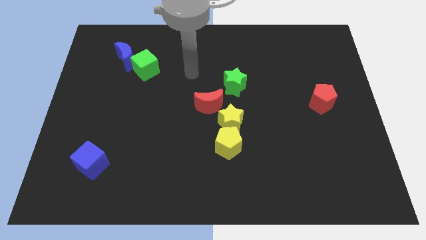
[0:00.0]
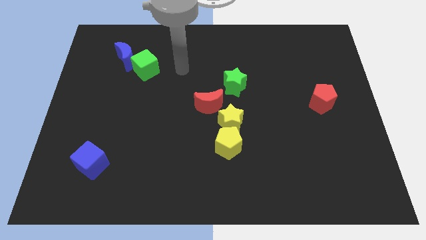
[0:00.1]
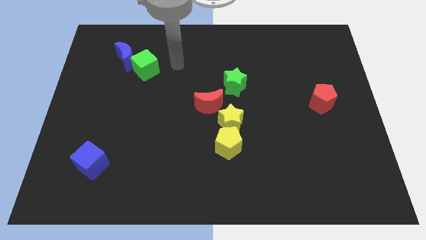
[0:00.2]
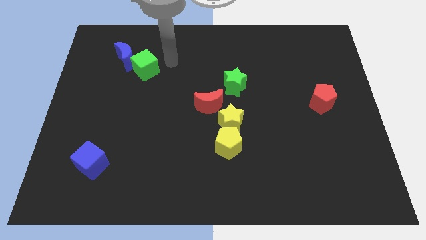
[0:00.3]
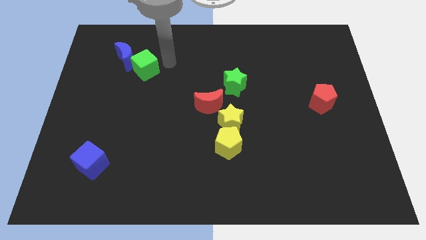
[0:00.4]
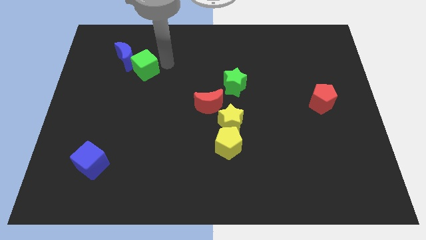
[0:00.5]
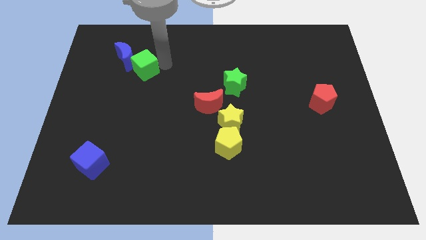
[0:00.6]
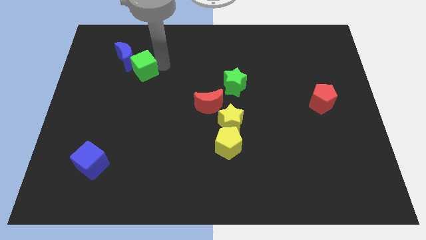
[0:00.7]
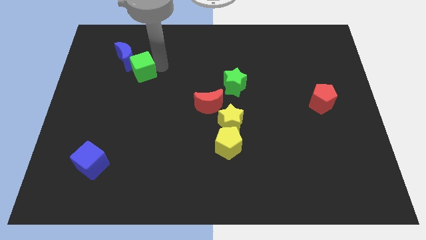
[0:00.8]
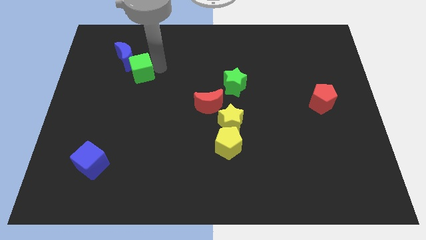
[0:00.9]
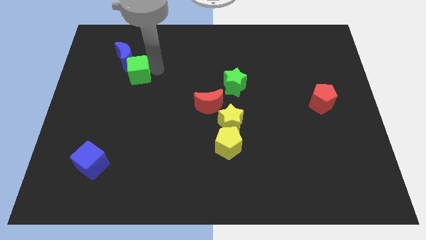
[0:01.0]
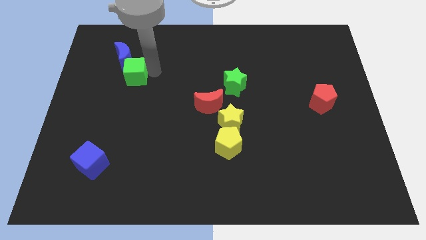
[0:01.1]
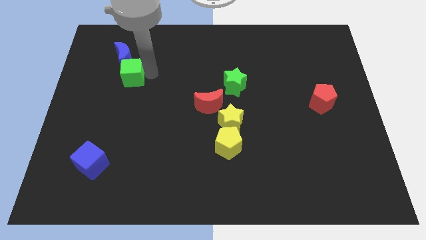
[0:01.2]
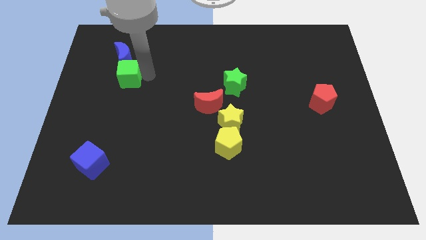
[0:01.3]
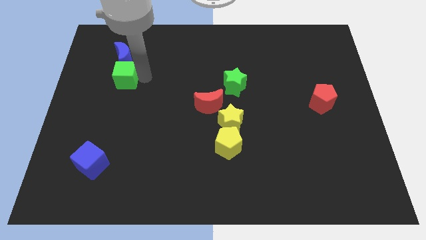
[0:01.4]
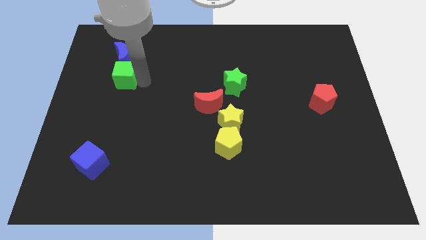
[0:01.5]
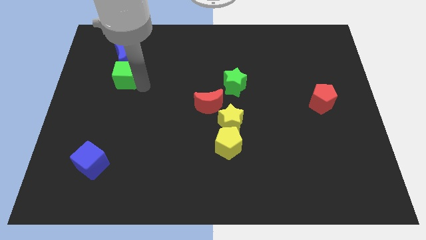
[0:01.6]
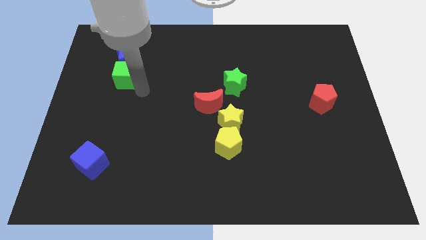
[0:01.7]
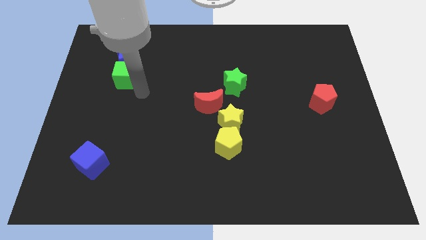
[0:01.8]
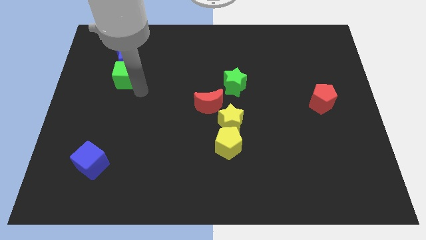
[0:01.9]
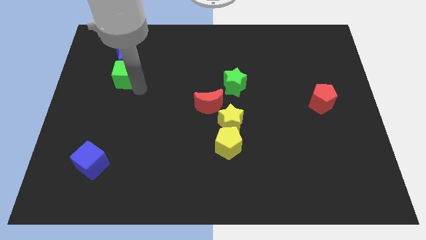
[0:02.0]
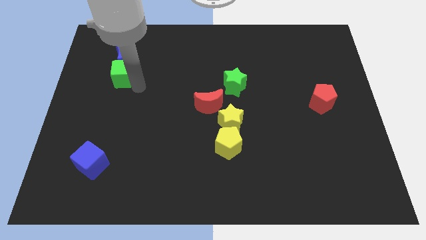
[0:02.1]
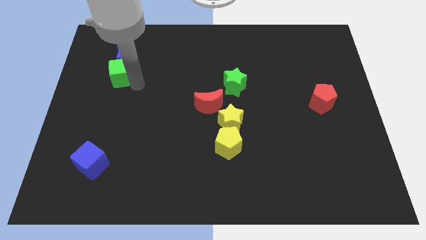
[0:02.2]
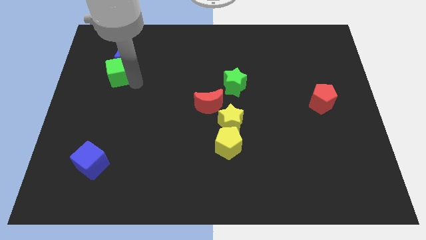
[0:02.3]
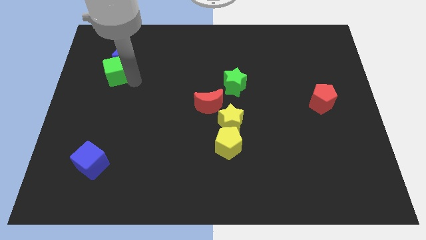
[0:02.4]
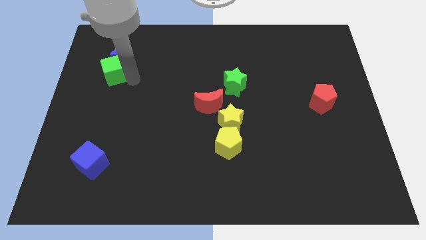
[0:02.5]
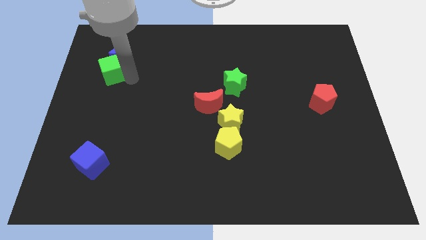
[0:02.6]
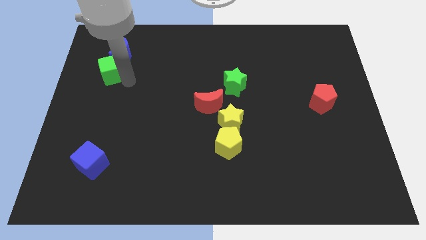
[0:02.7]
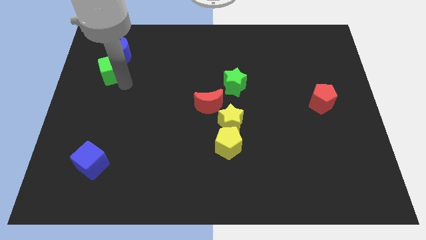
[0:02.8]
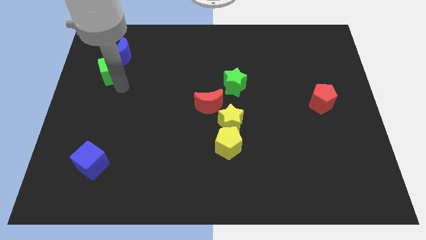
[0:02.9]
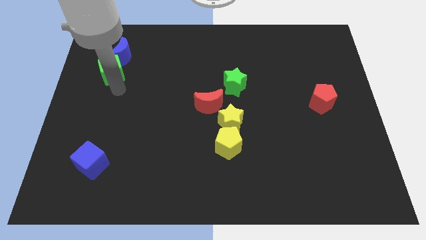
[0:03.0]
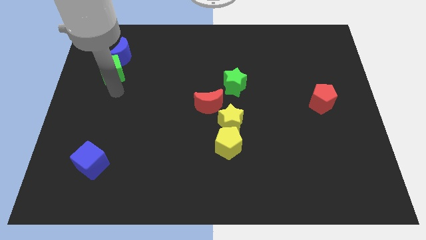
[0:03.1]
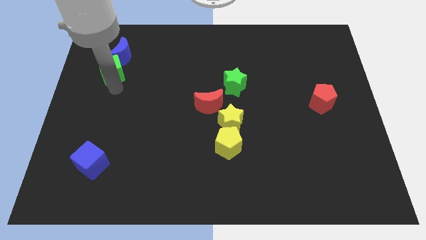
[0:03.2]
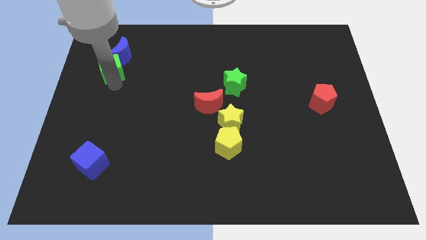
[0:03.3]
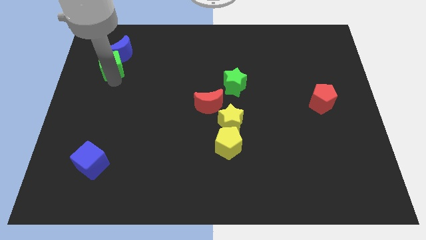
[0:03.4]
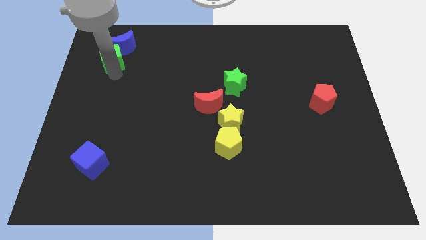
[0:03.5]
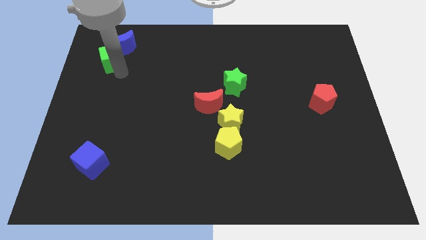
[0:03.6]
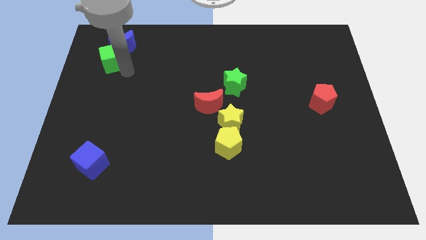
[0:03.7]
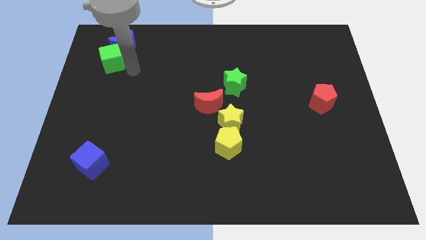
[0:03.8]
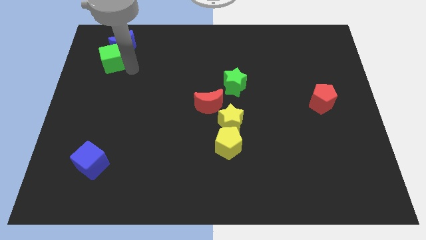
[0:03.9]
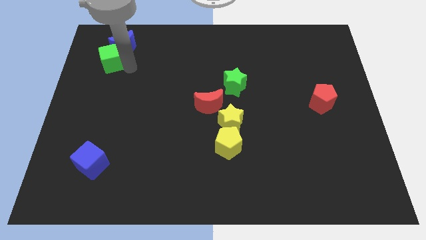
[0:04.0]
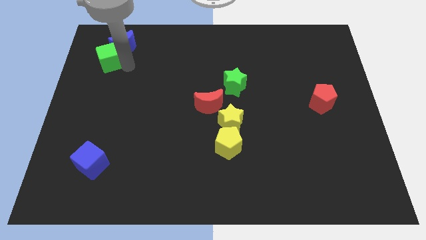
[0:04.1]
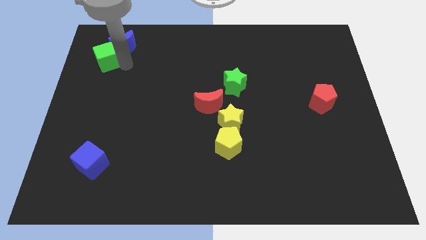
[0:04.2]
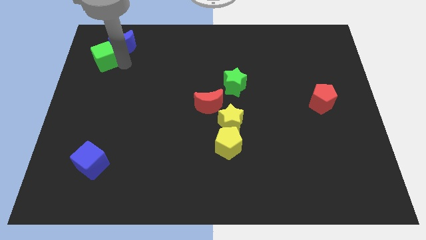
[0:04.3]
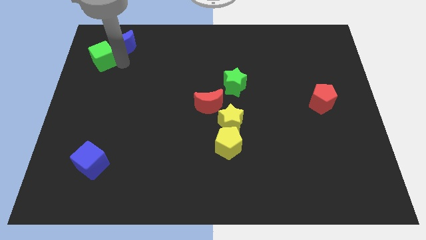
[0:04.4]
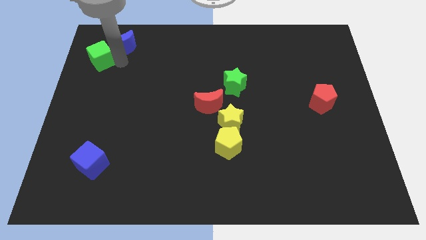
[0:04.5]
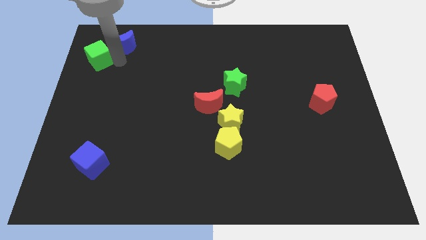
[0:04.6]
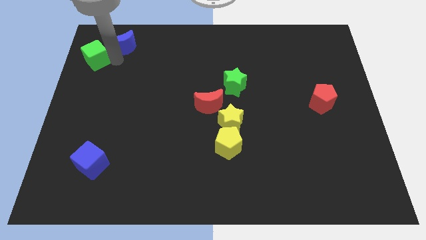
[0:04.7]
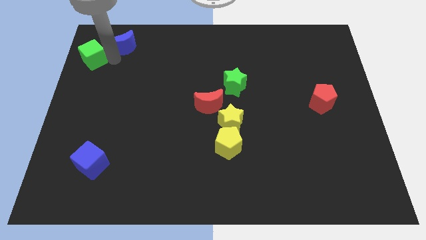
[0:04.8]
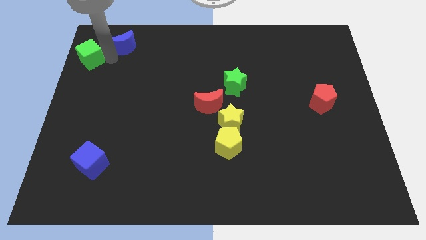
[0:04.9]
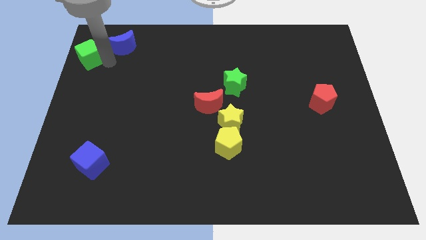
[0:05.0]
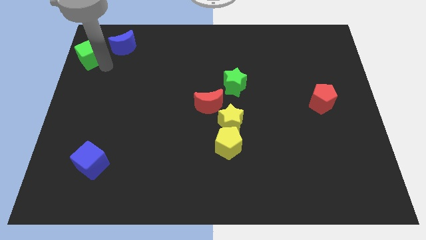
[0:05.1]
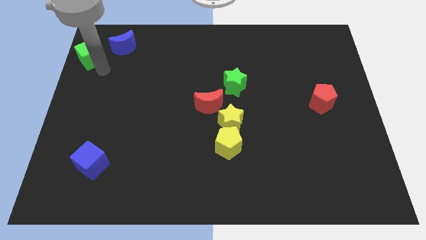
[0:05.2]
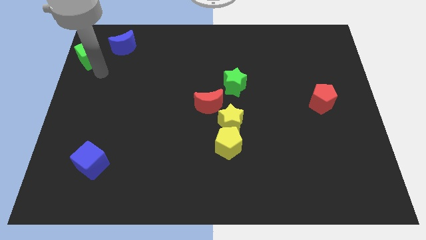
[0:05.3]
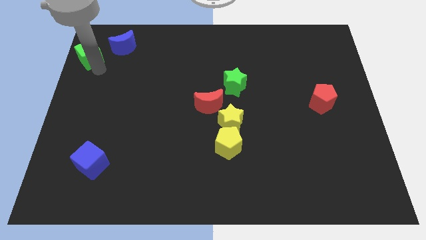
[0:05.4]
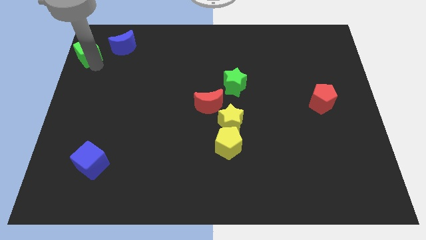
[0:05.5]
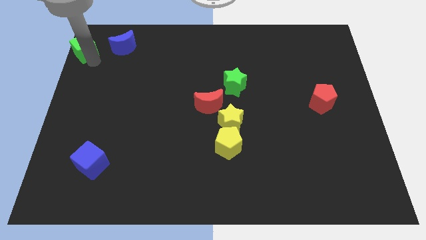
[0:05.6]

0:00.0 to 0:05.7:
put the green cube to the top left corner

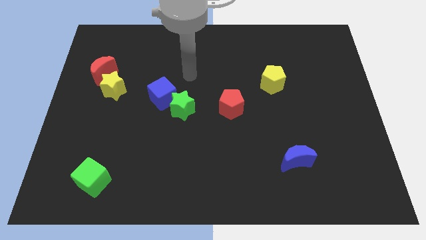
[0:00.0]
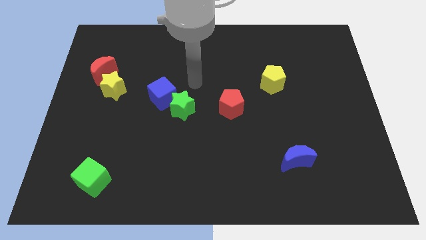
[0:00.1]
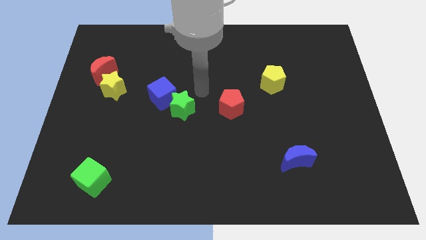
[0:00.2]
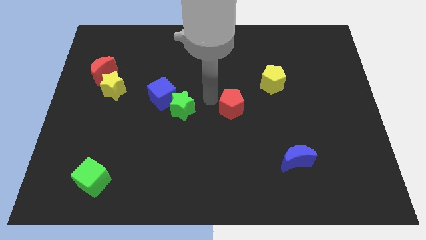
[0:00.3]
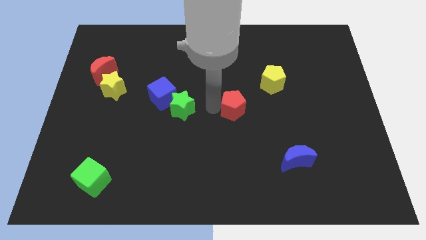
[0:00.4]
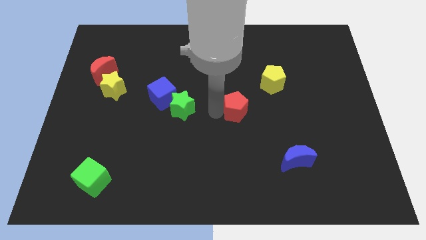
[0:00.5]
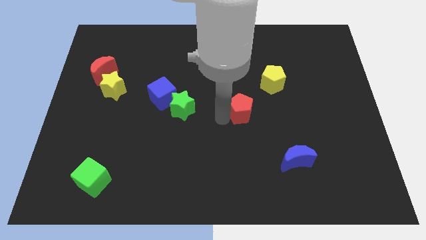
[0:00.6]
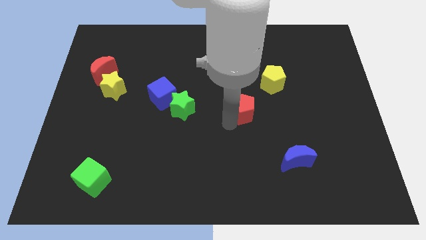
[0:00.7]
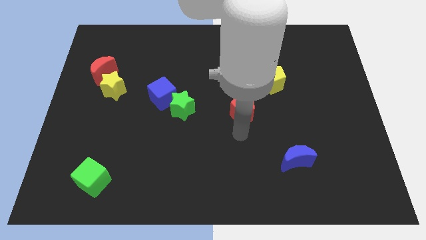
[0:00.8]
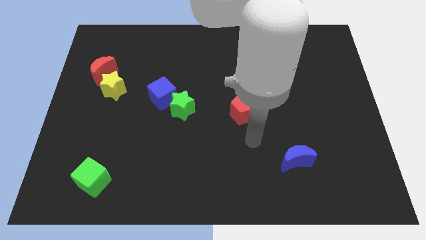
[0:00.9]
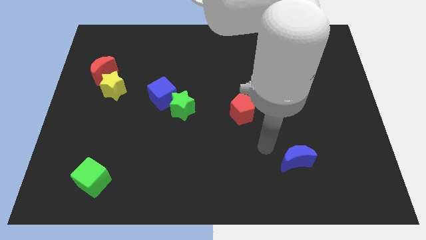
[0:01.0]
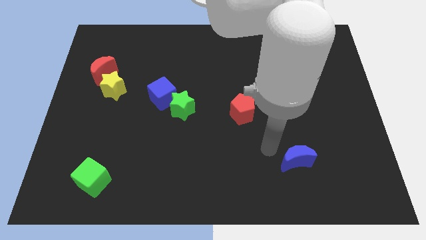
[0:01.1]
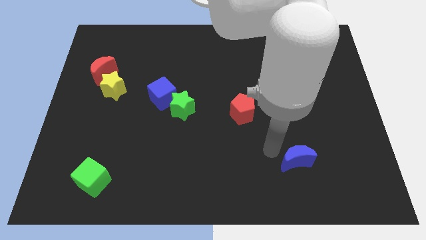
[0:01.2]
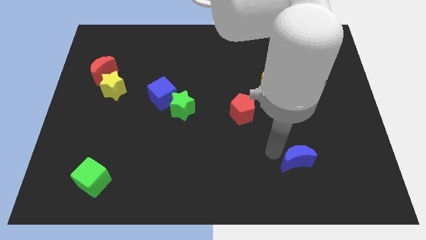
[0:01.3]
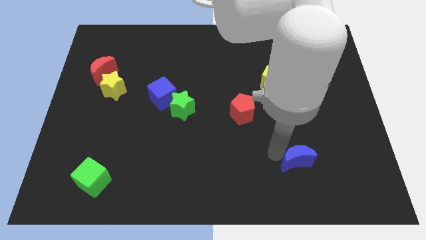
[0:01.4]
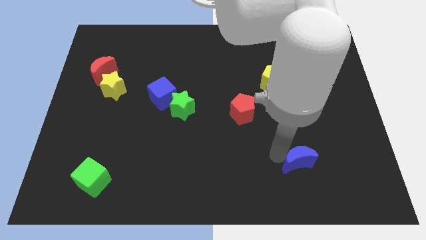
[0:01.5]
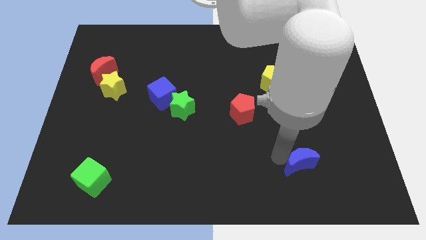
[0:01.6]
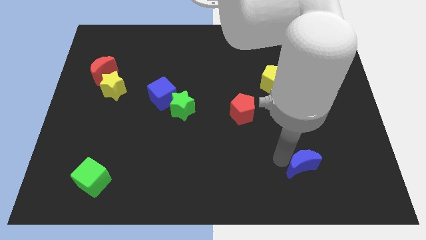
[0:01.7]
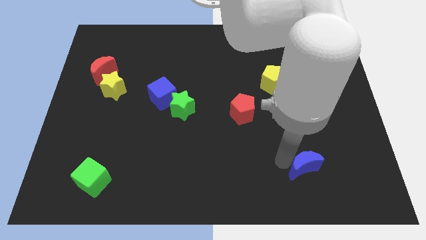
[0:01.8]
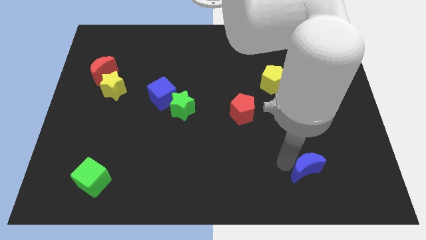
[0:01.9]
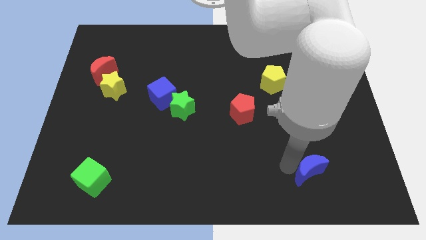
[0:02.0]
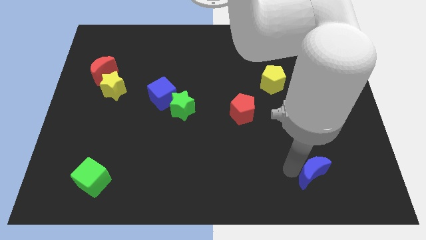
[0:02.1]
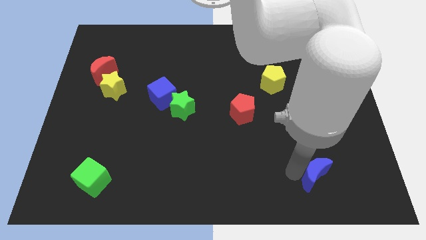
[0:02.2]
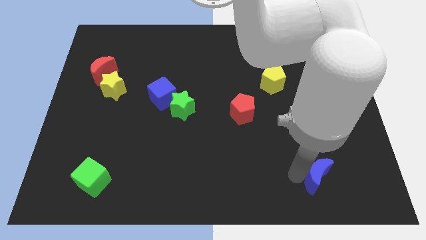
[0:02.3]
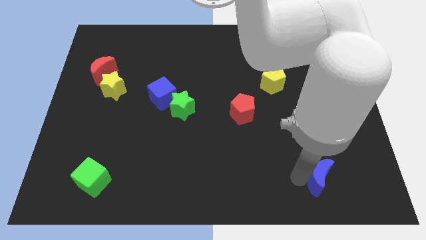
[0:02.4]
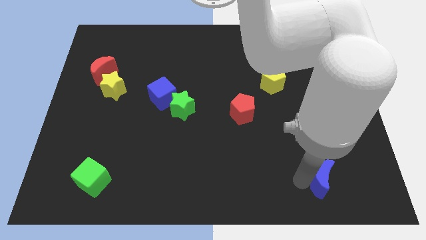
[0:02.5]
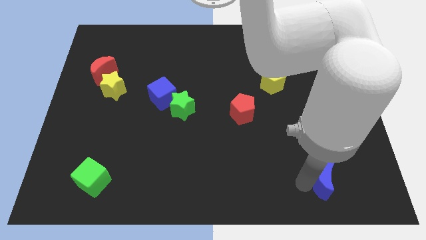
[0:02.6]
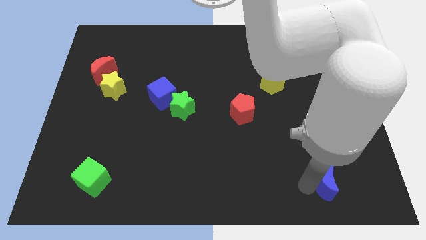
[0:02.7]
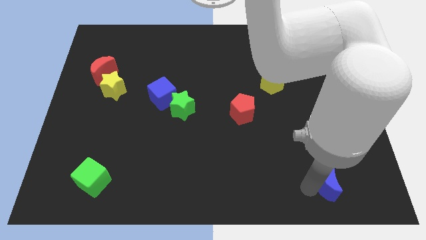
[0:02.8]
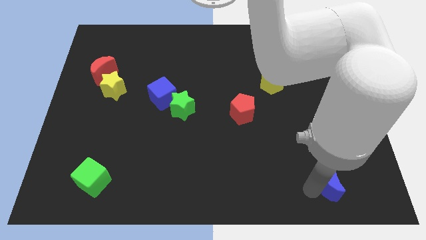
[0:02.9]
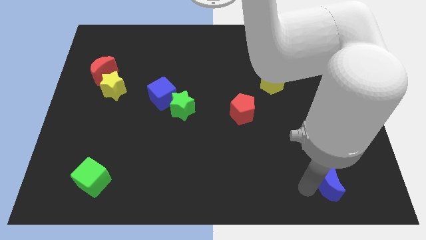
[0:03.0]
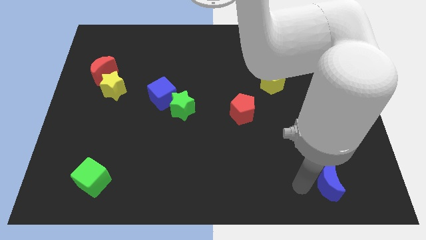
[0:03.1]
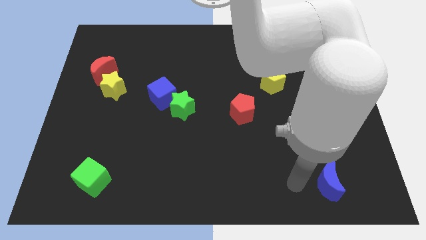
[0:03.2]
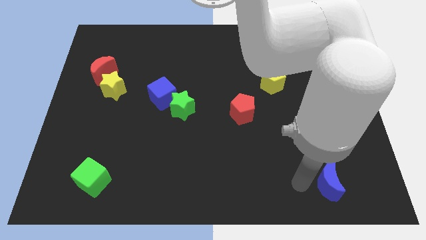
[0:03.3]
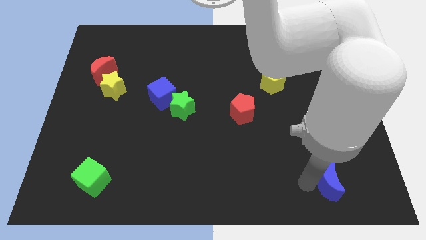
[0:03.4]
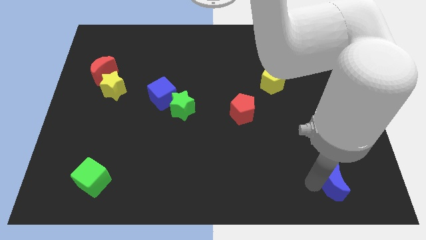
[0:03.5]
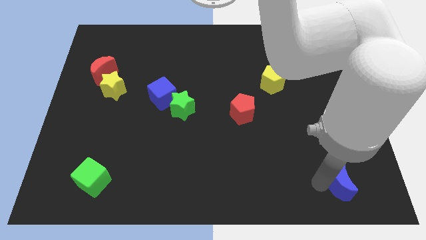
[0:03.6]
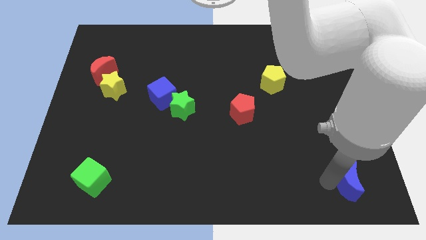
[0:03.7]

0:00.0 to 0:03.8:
put the blue moon to the bottom right
